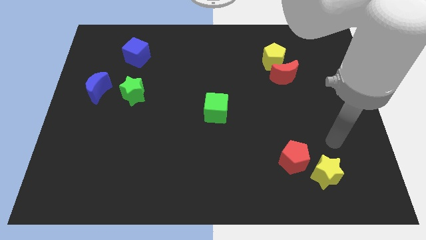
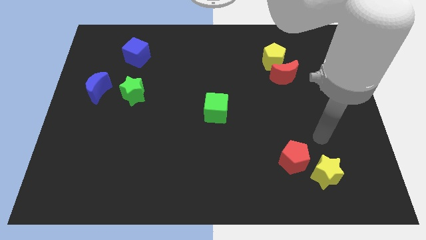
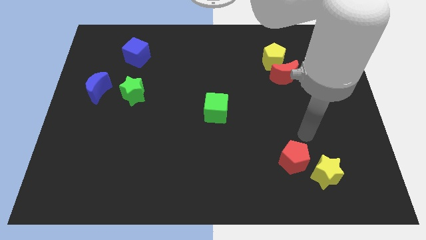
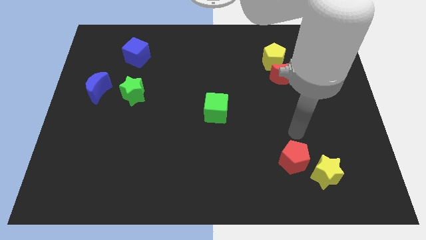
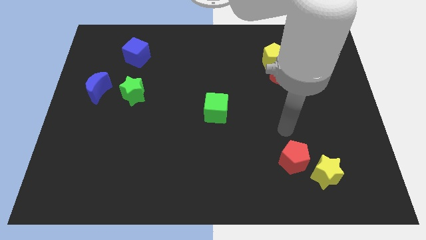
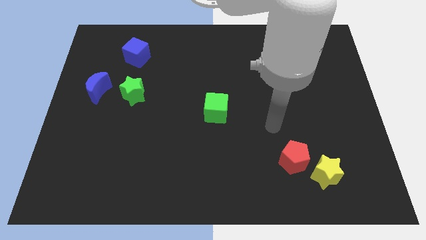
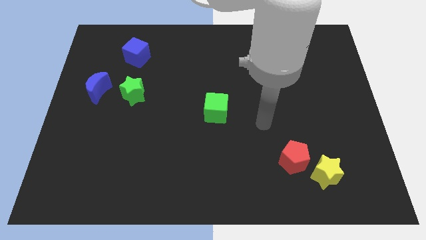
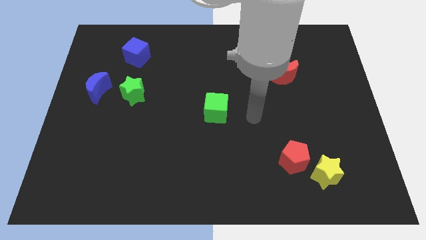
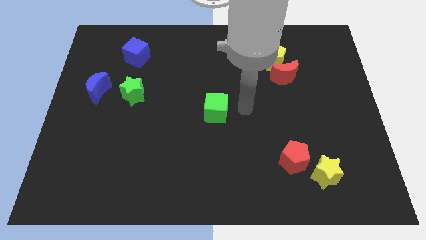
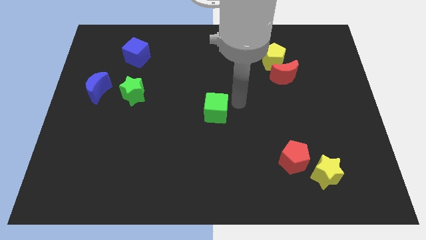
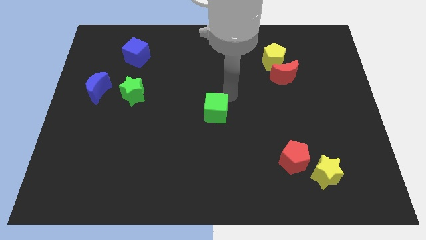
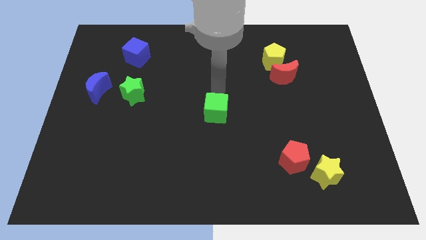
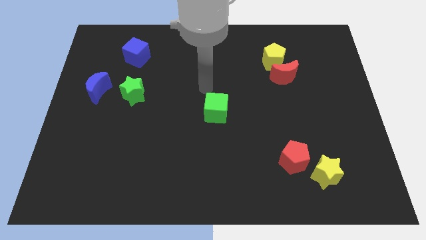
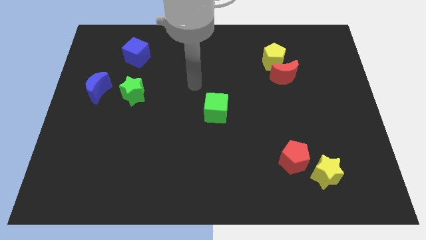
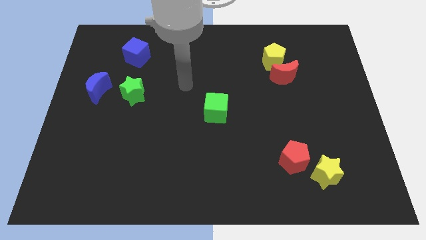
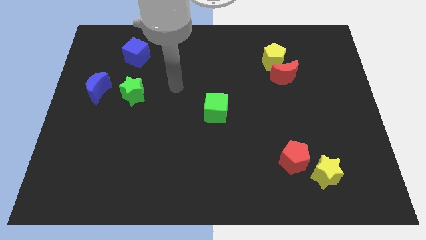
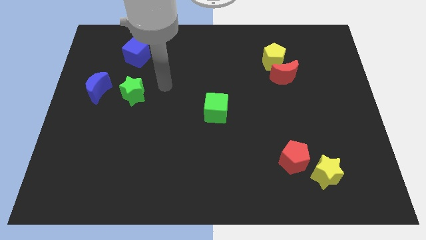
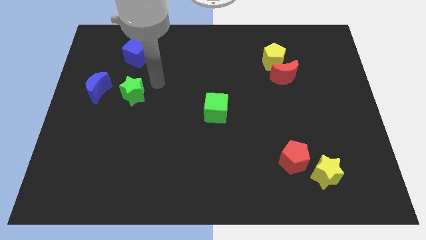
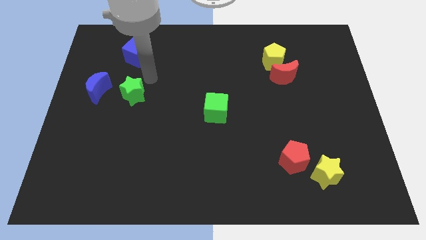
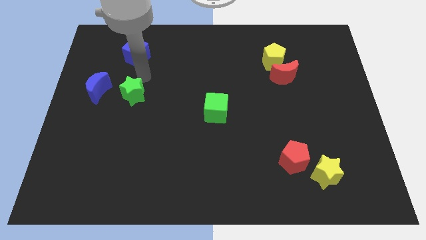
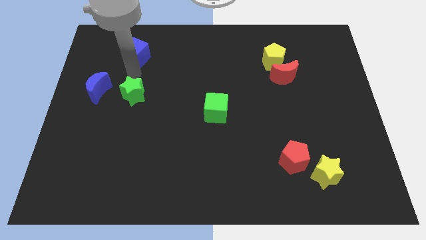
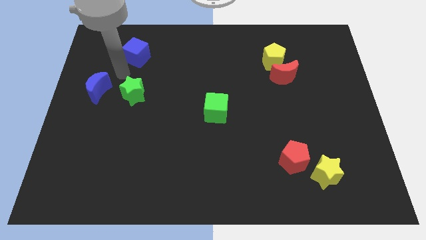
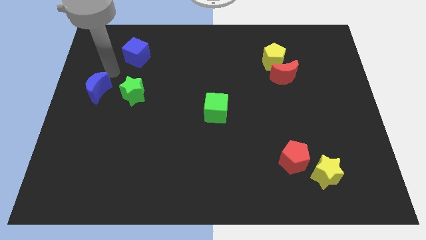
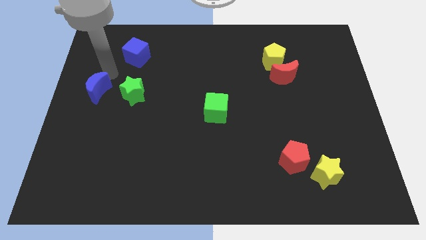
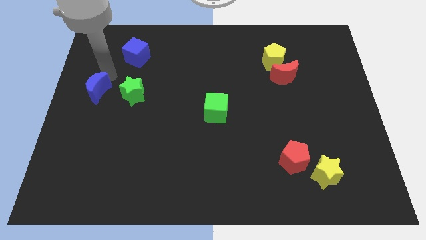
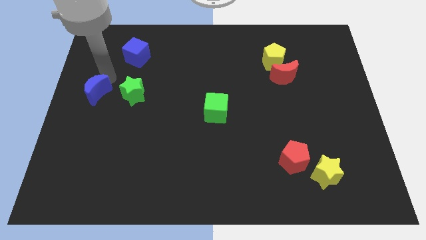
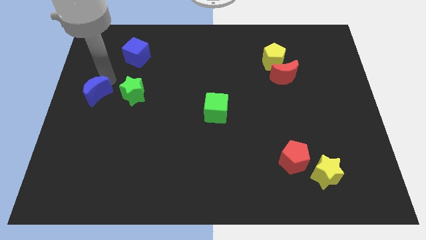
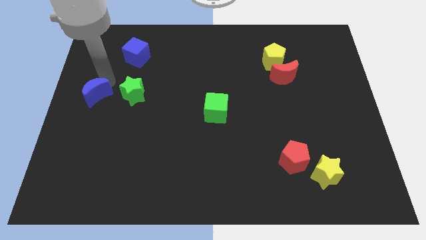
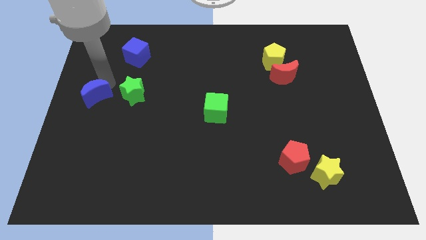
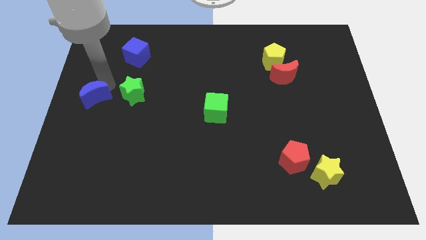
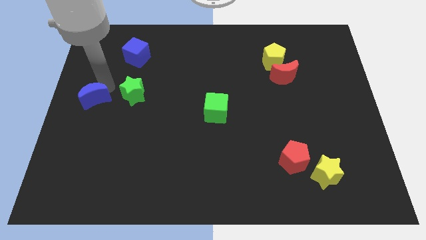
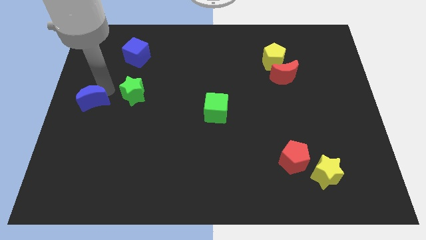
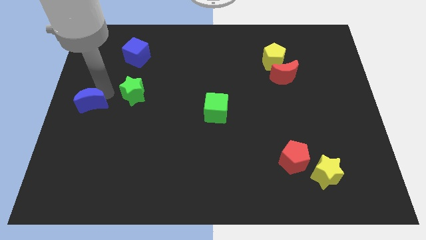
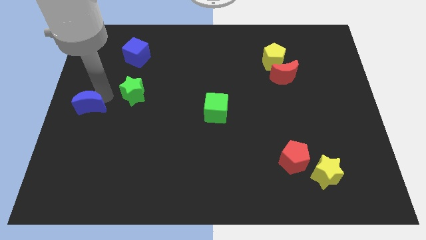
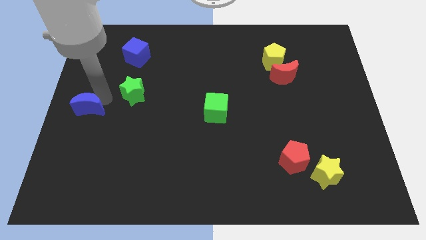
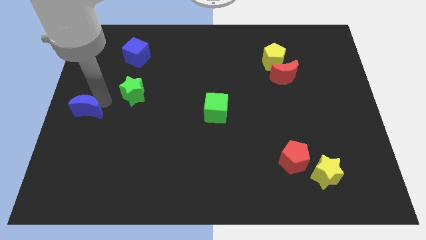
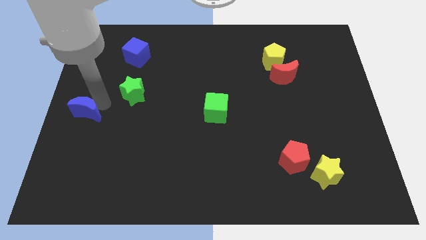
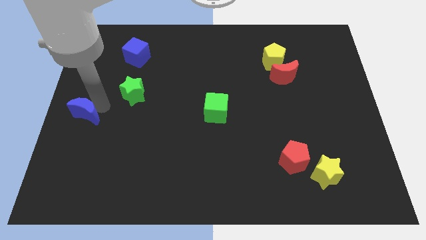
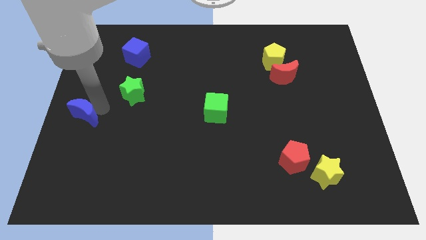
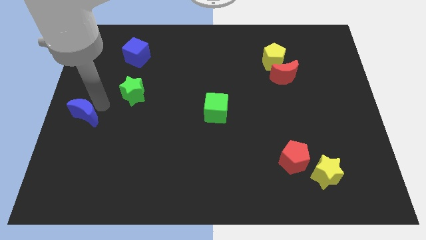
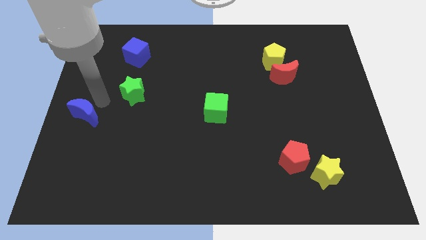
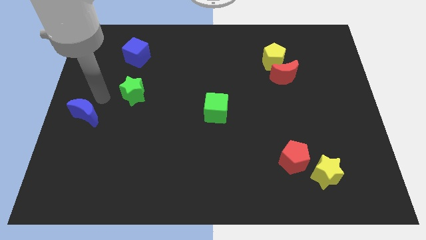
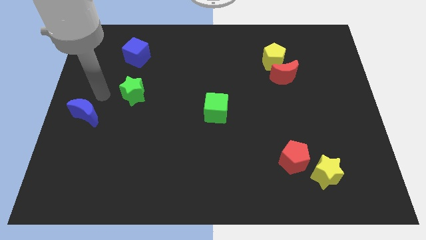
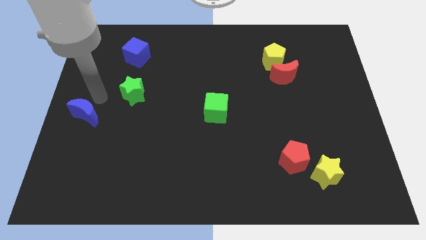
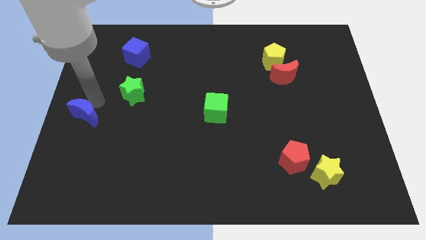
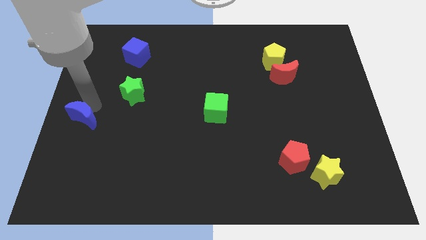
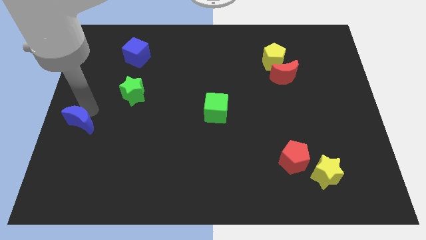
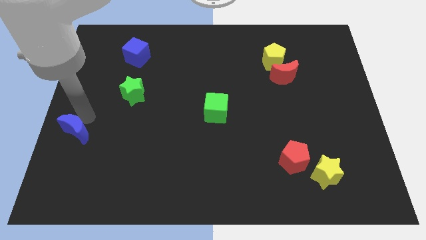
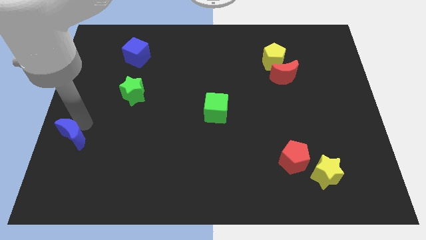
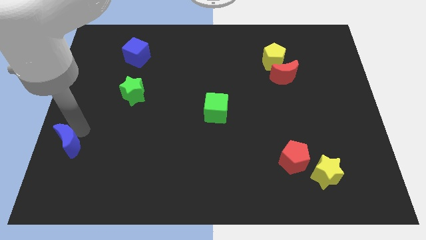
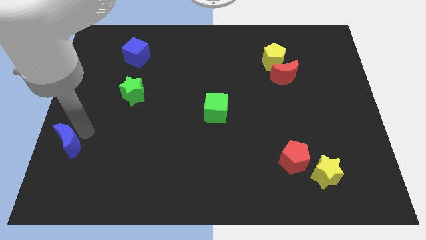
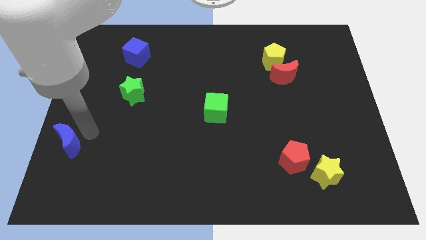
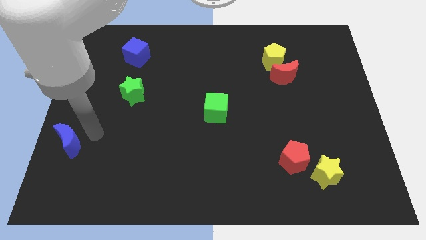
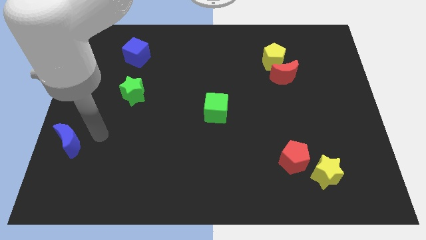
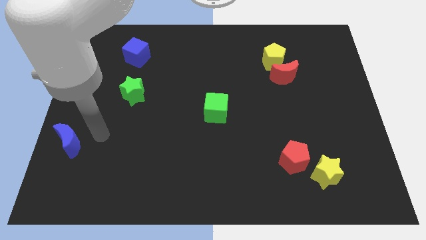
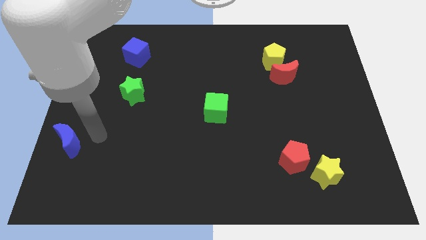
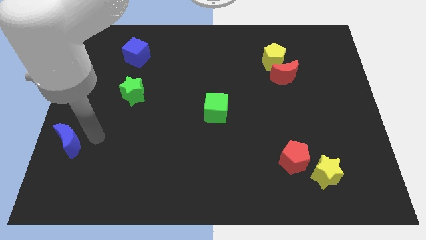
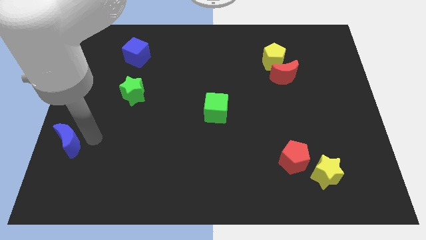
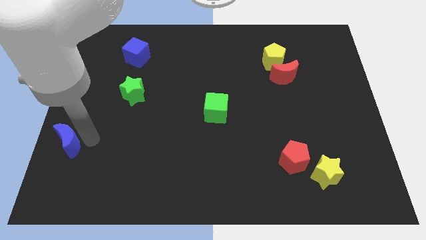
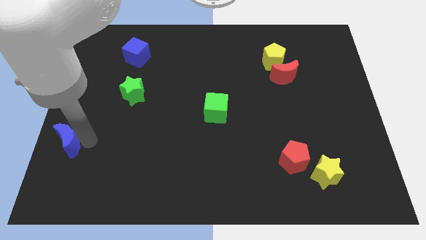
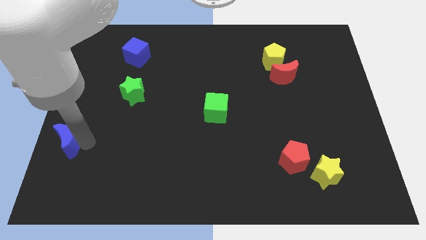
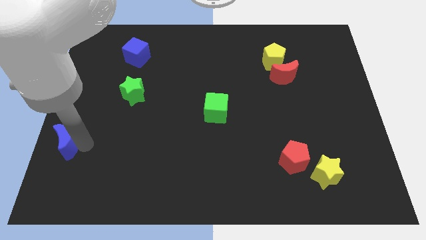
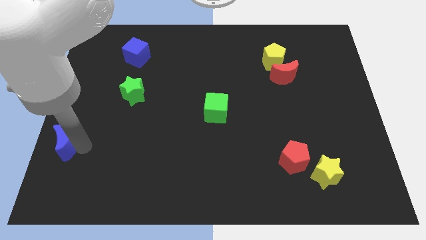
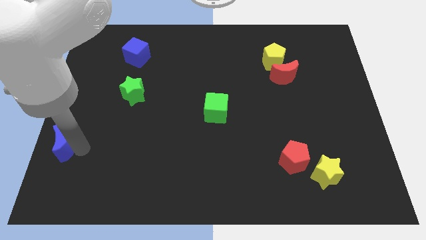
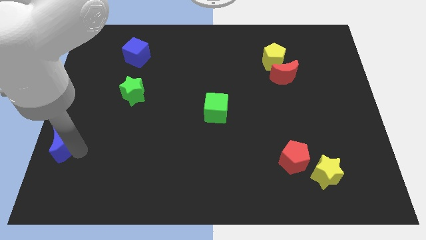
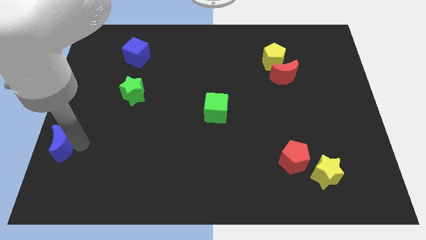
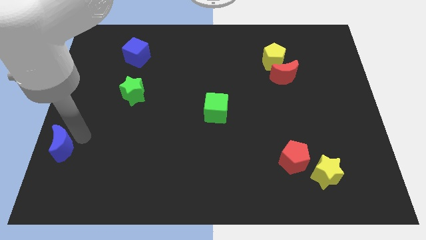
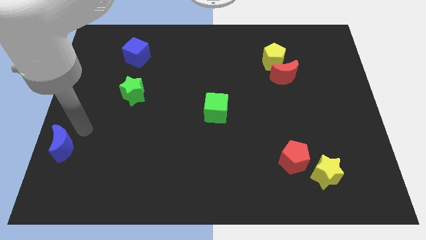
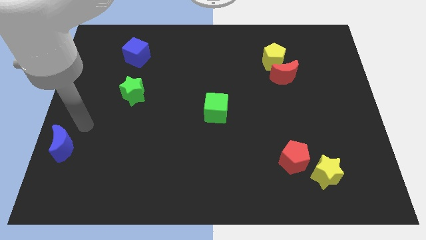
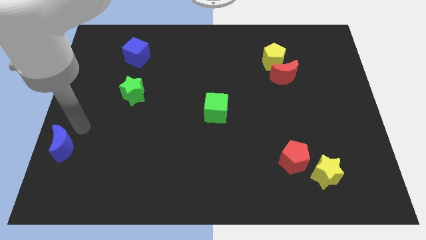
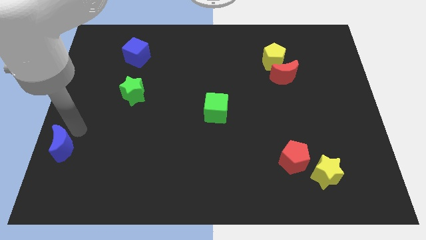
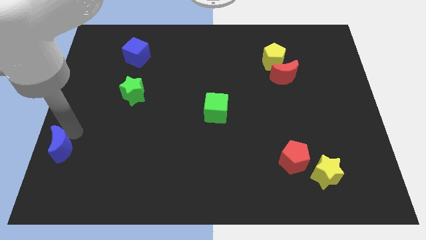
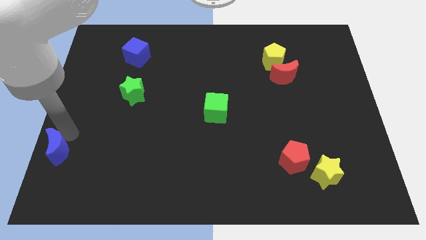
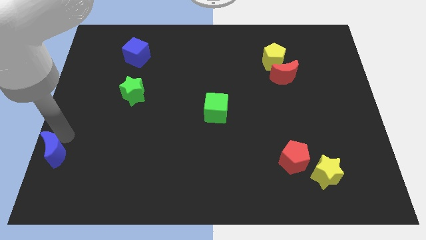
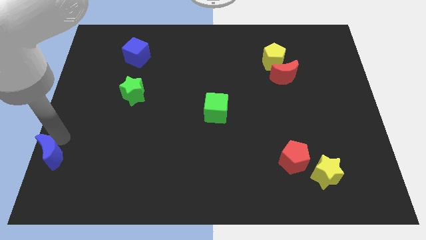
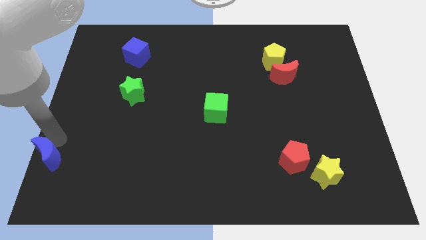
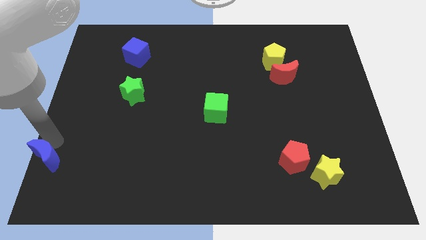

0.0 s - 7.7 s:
put the blue moon to the bottom left
